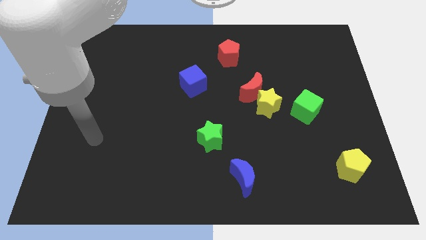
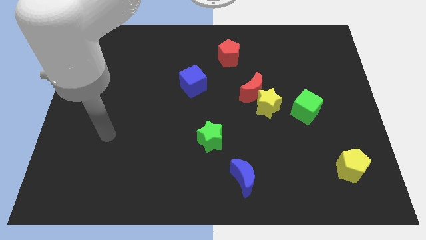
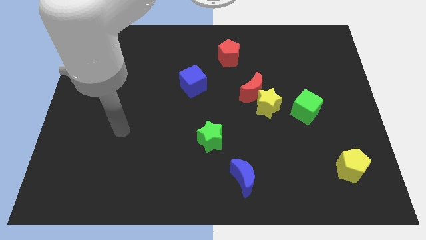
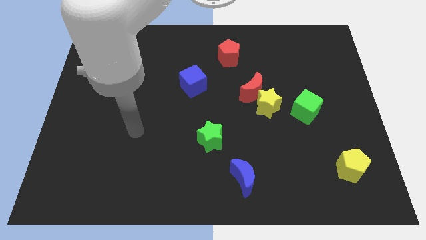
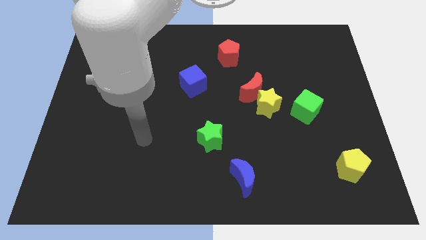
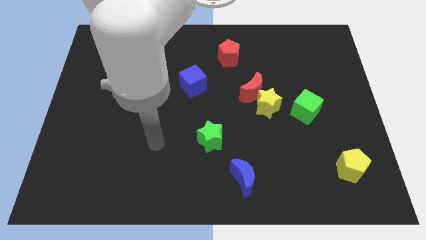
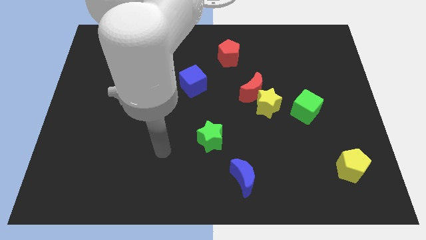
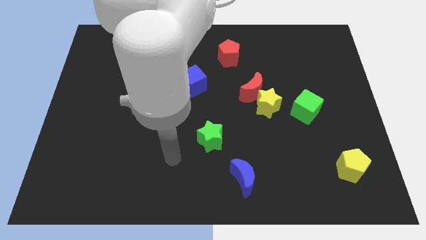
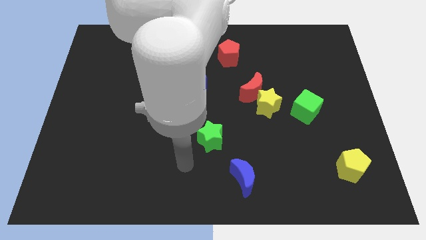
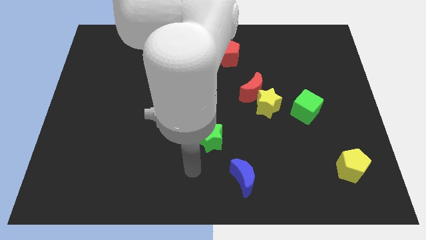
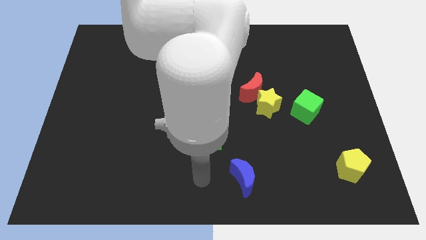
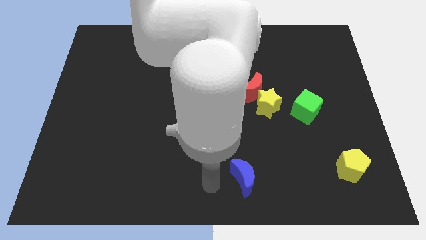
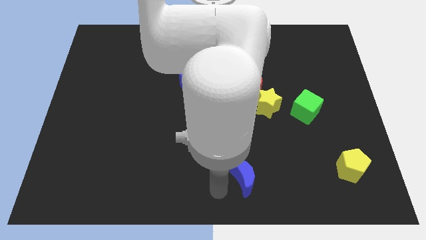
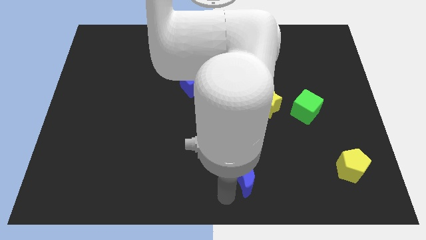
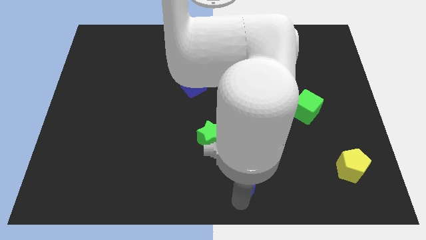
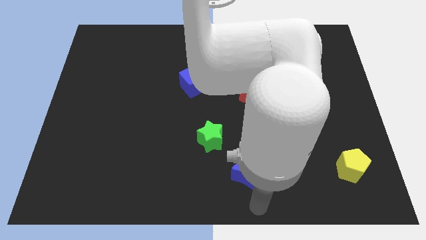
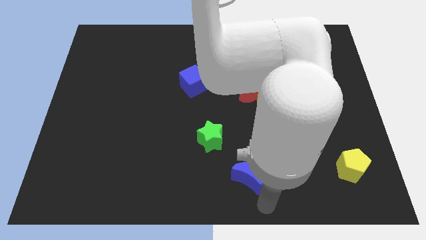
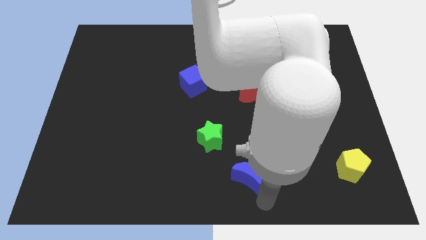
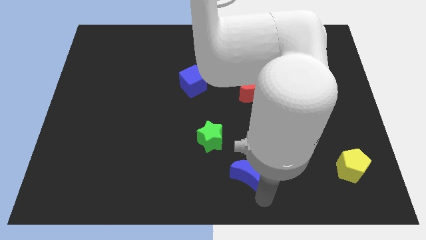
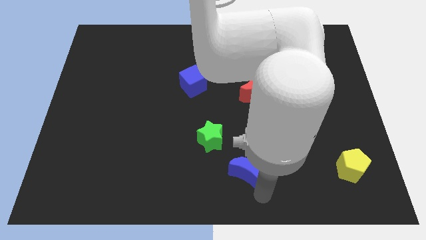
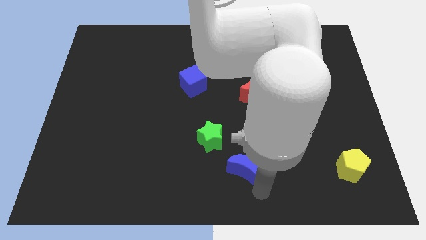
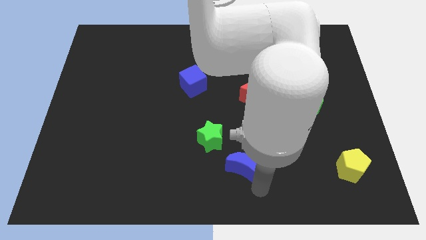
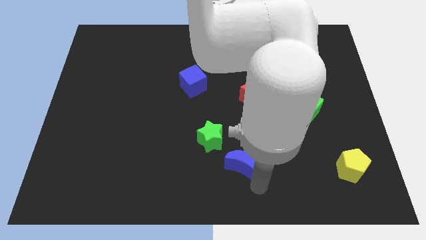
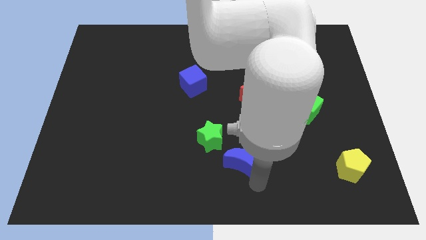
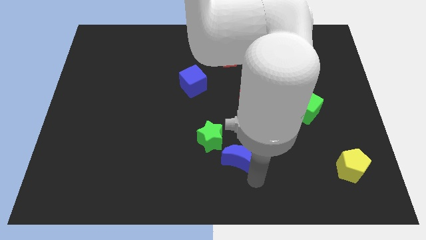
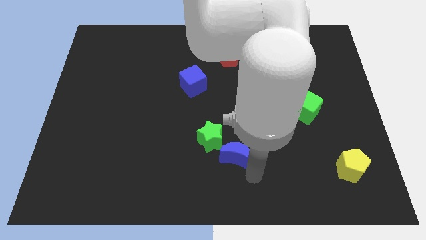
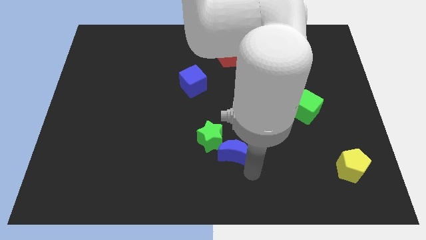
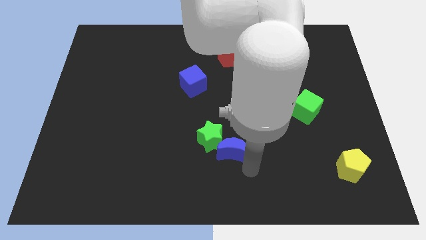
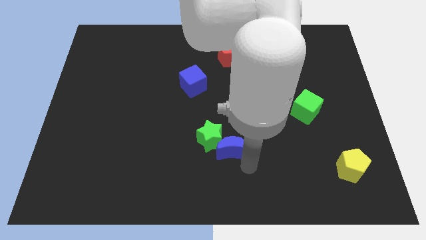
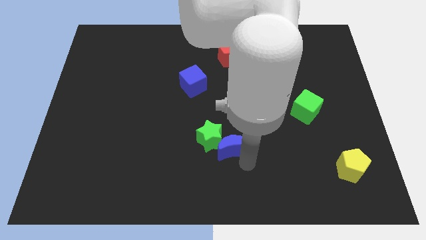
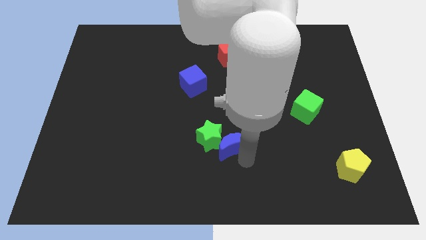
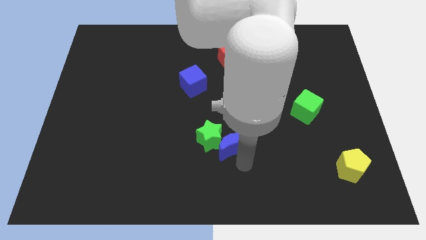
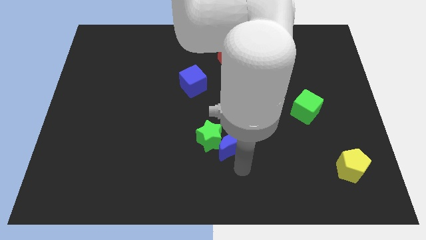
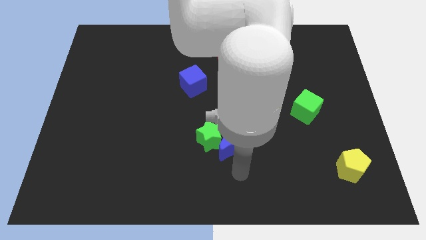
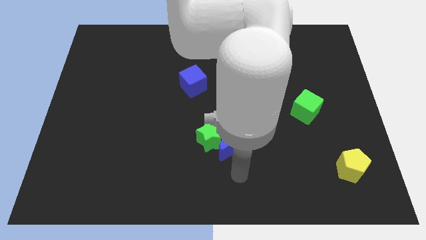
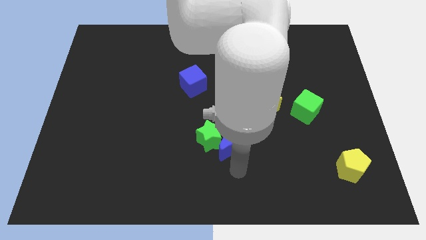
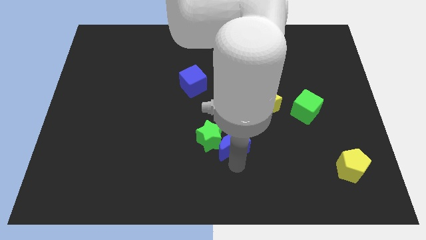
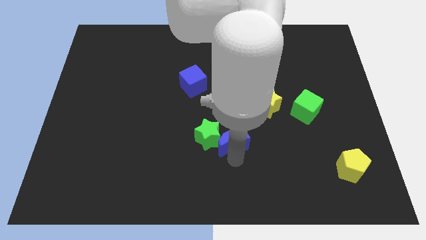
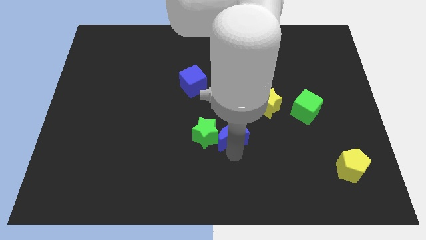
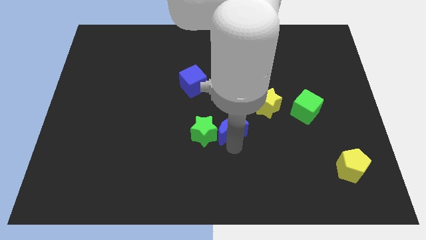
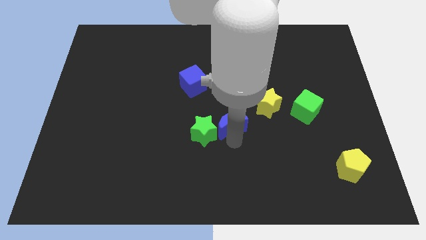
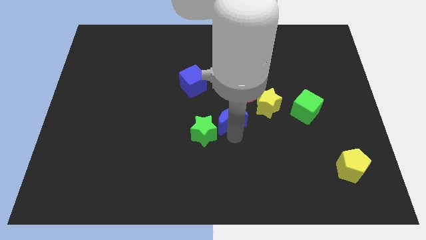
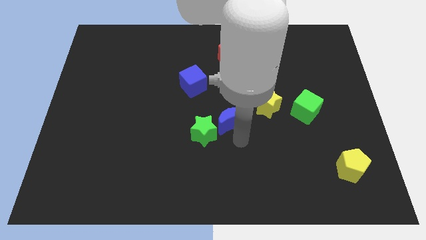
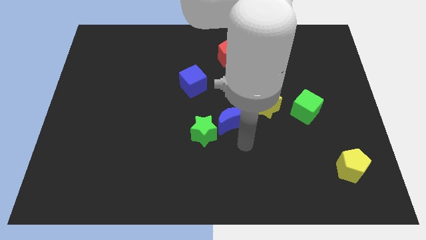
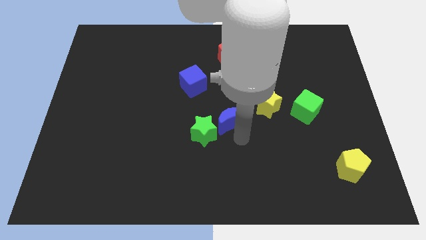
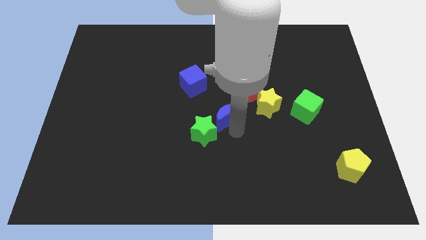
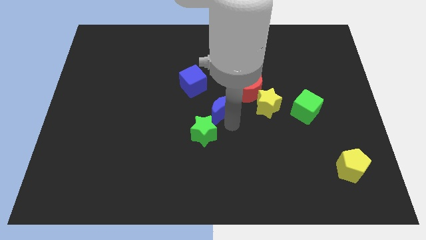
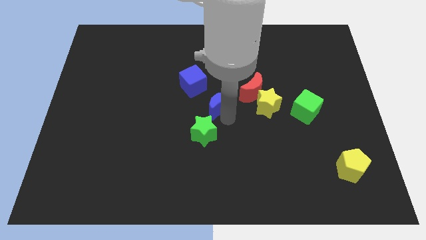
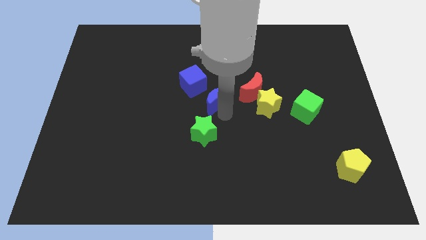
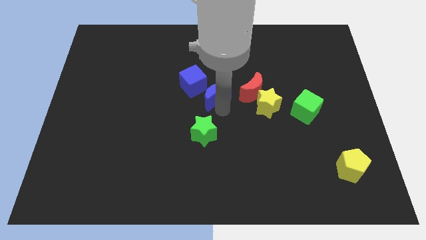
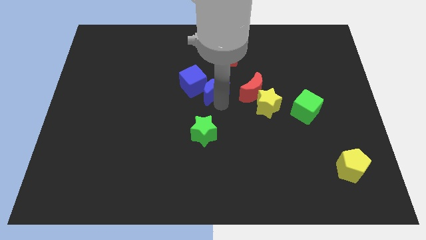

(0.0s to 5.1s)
push the blue moon towards the blue cube

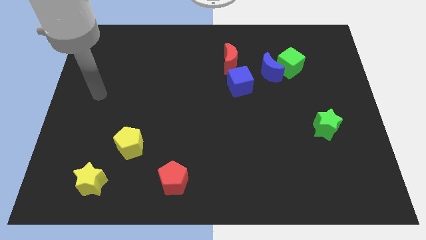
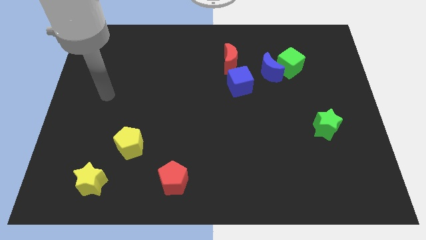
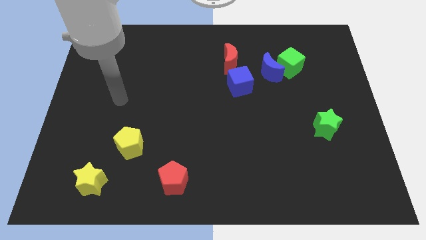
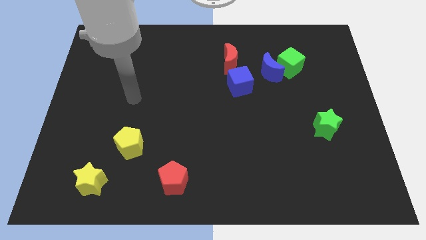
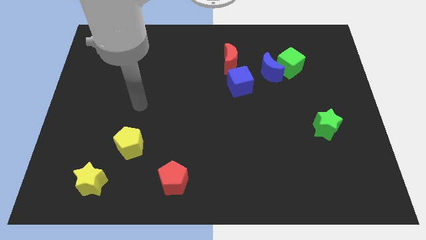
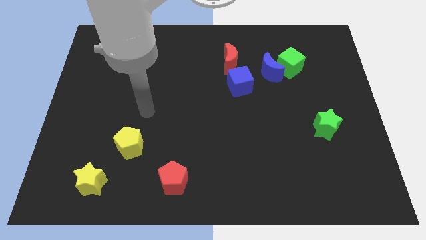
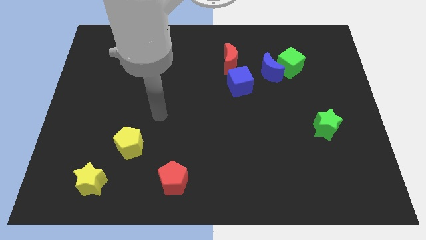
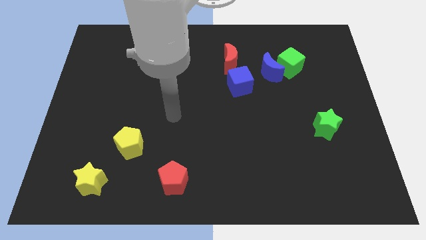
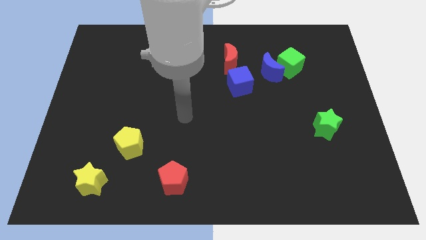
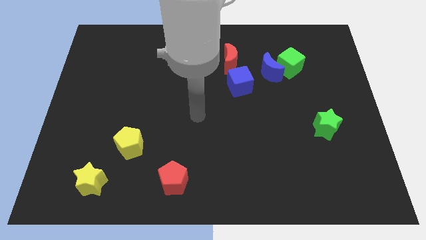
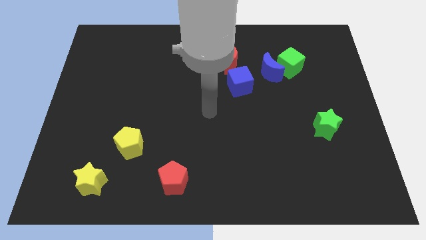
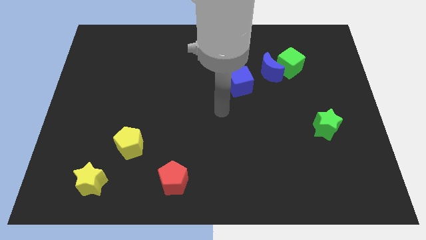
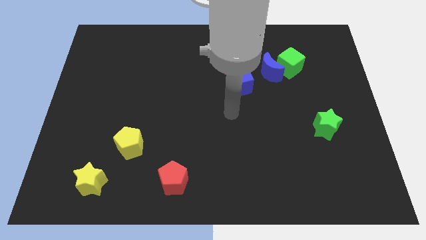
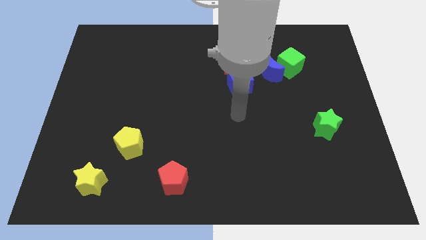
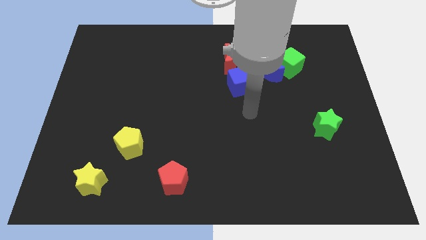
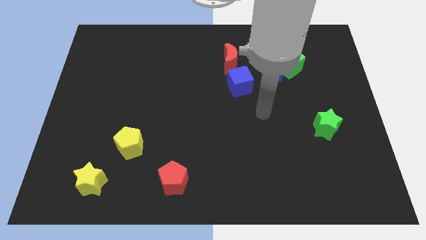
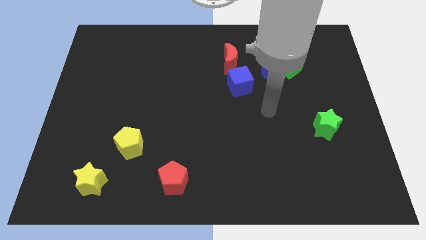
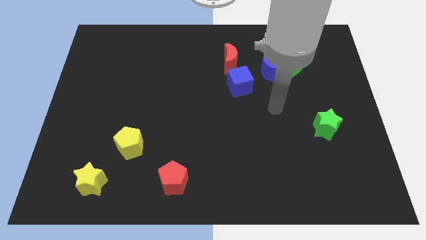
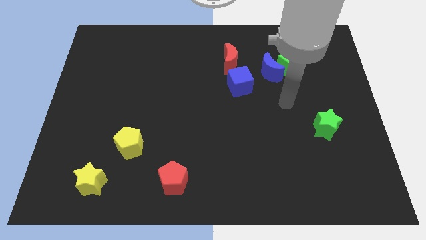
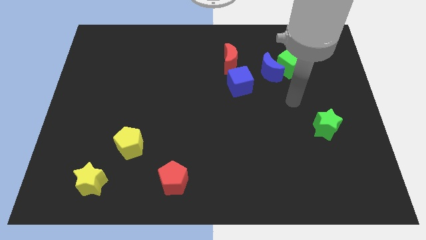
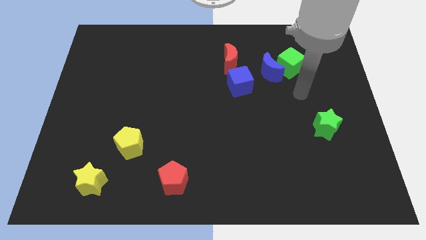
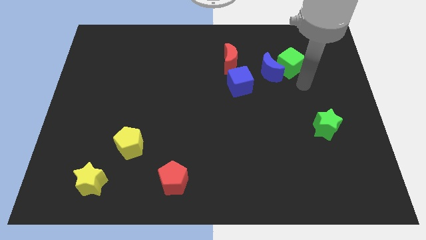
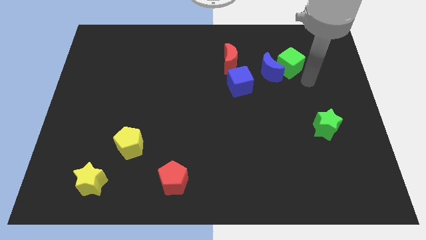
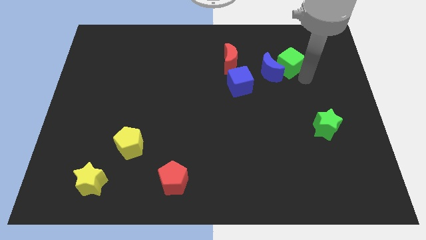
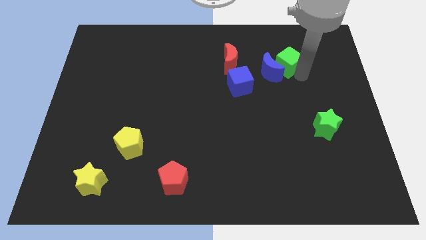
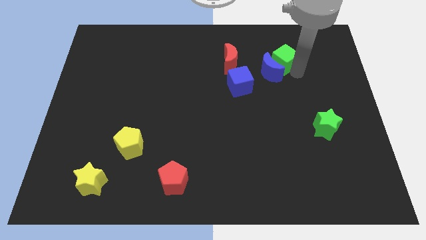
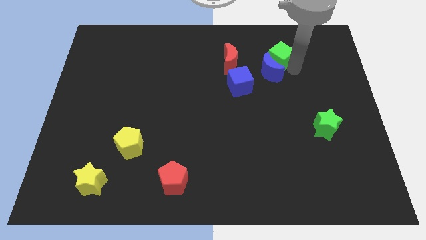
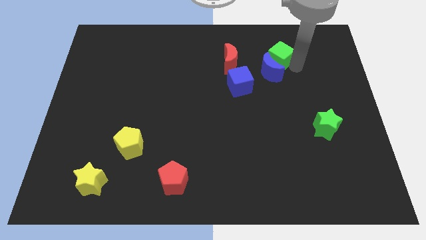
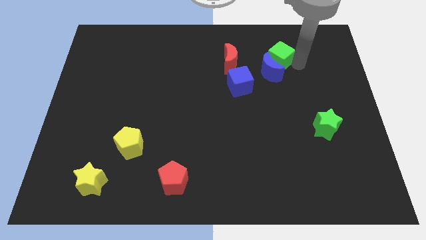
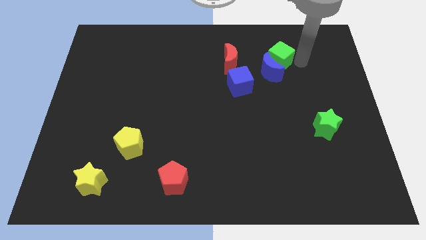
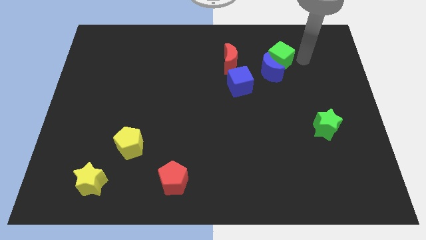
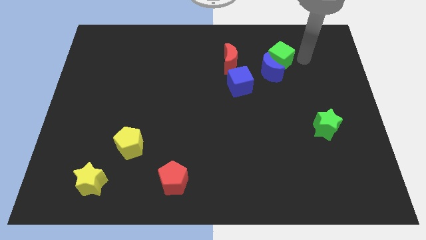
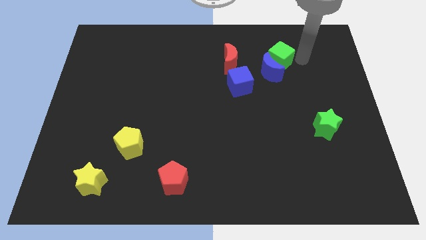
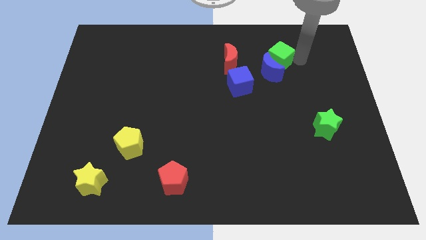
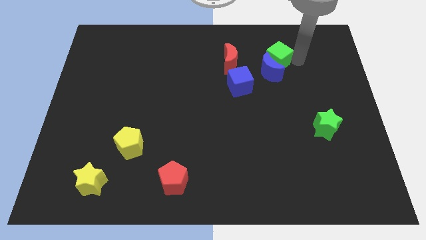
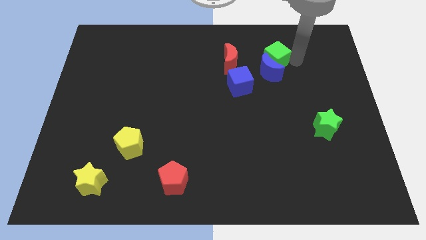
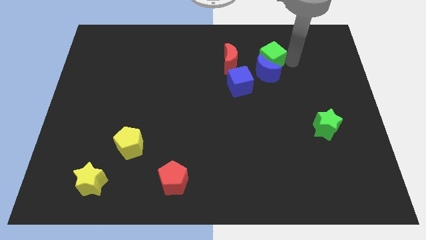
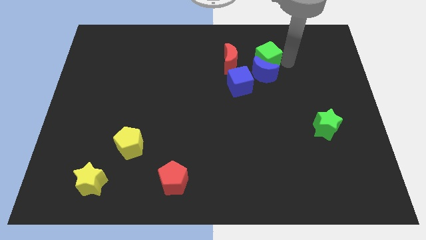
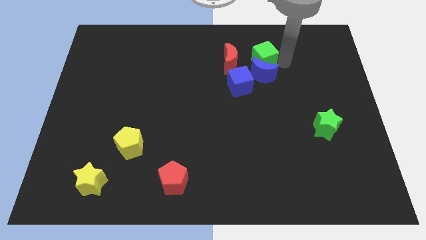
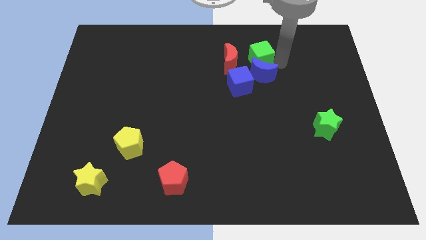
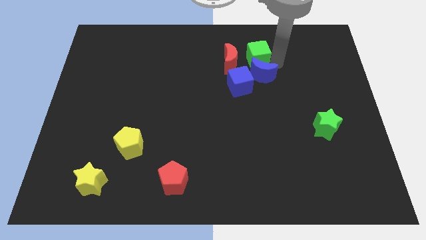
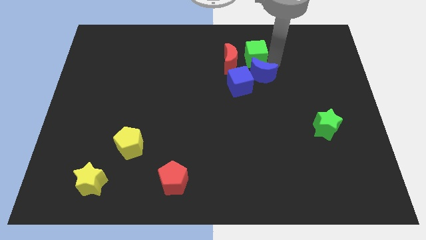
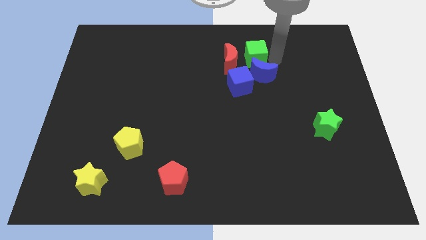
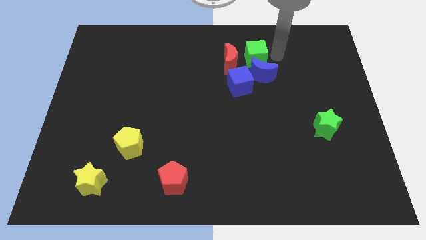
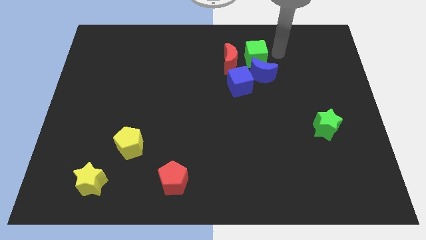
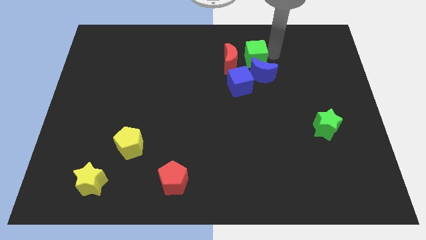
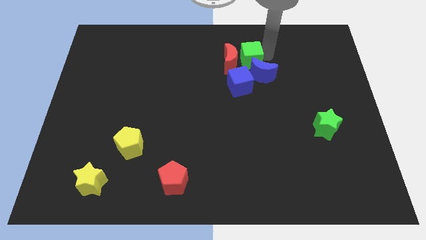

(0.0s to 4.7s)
put the green cube close to the red moon
